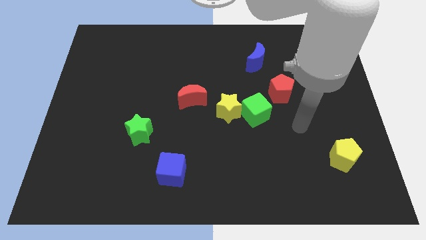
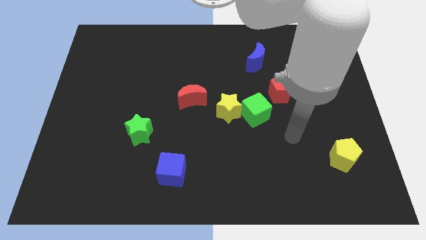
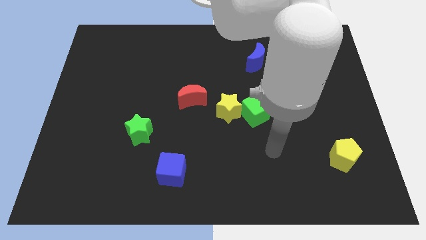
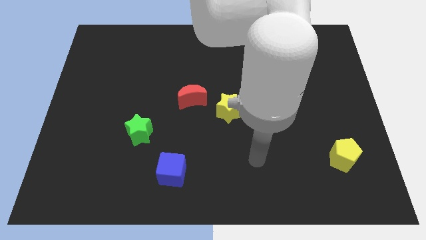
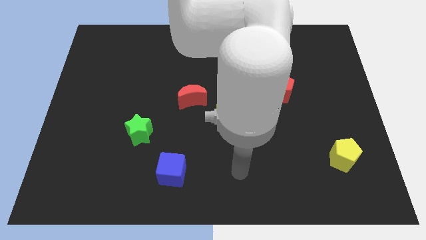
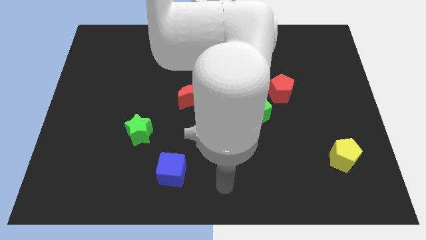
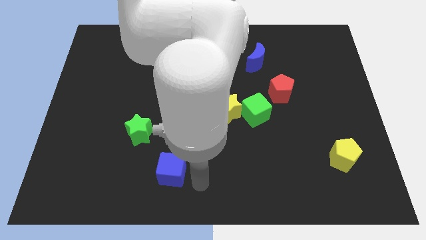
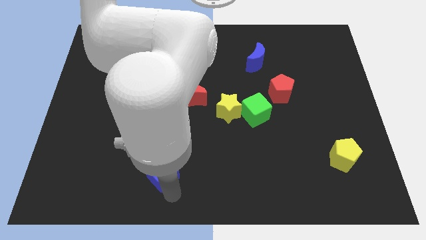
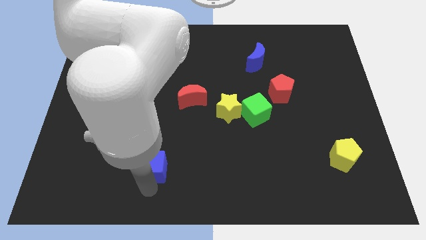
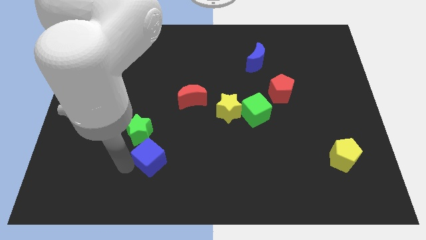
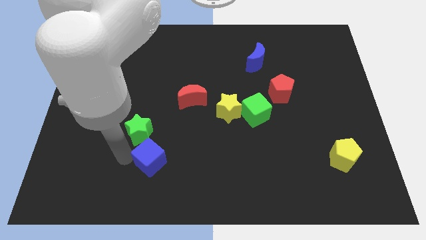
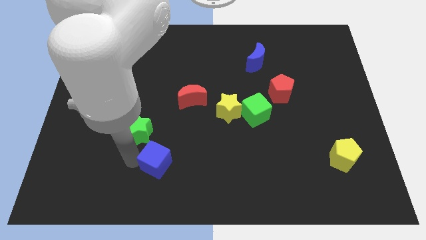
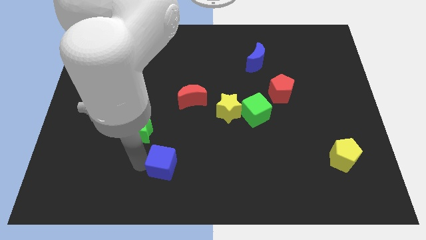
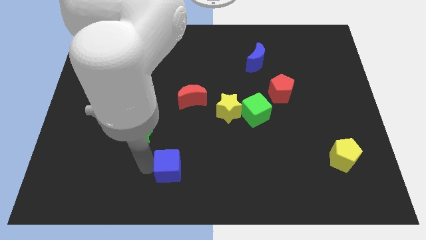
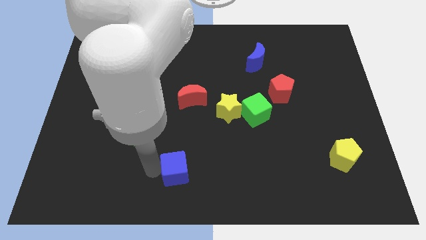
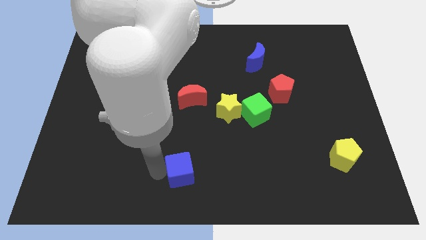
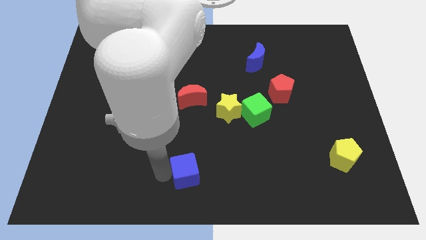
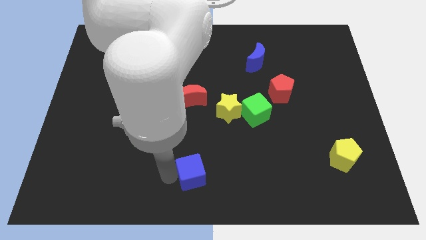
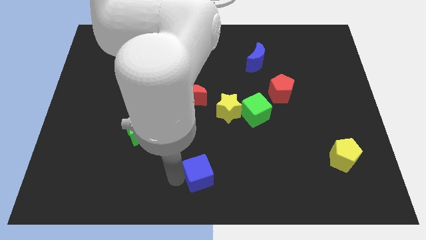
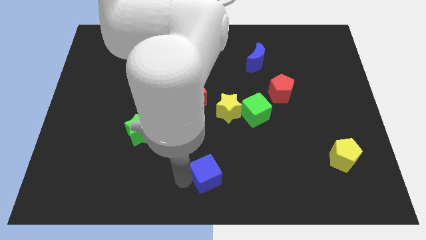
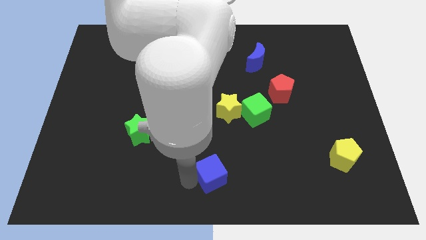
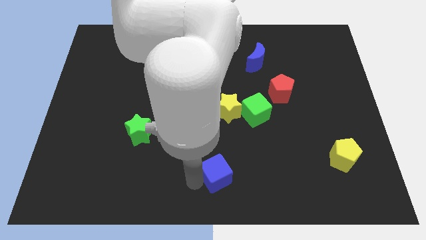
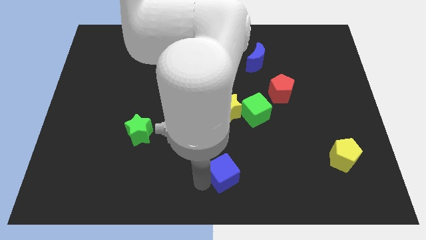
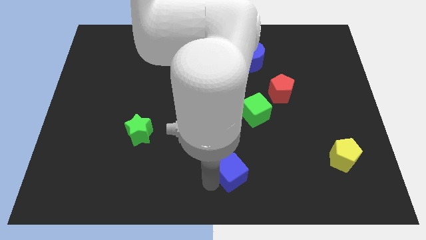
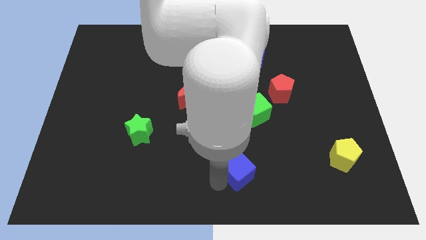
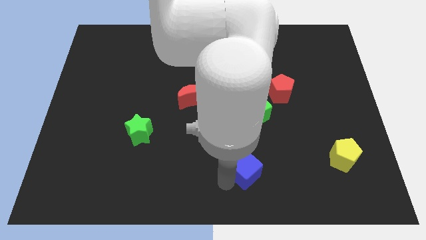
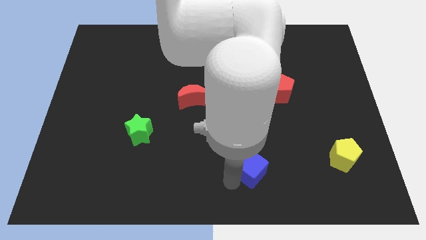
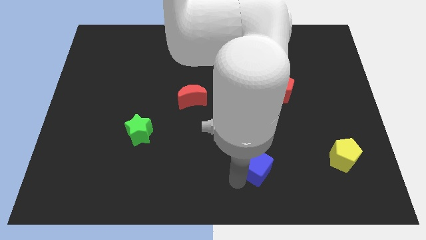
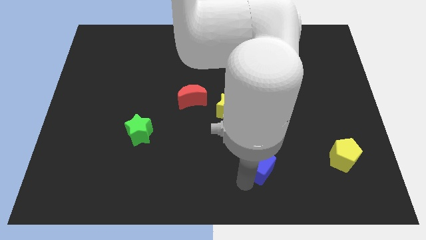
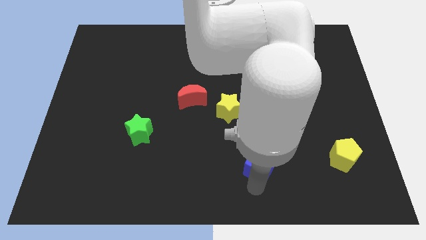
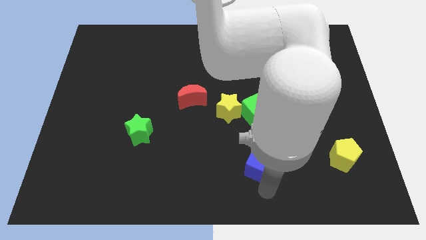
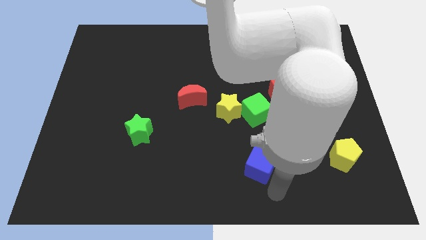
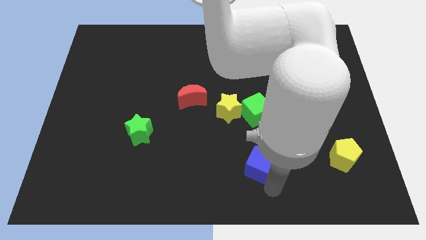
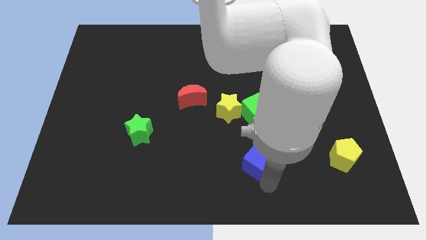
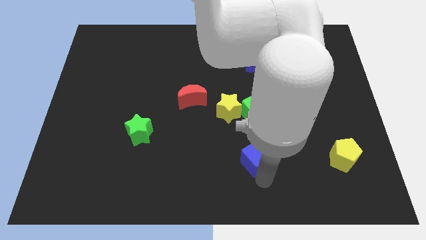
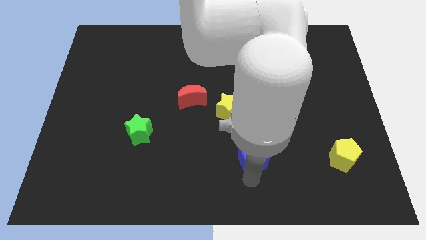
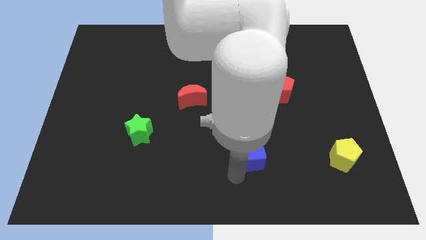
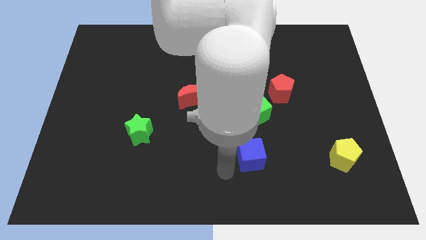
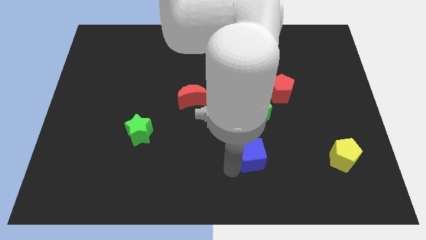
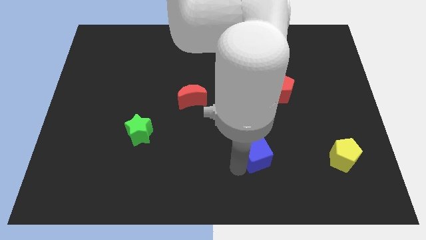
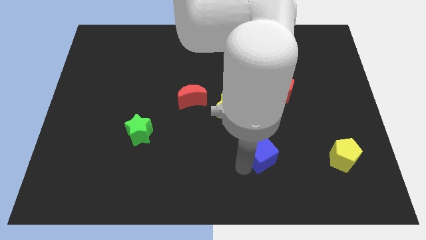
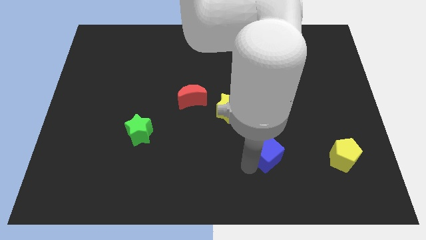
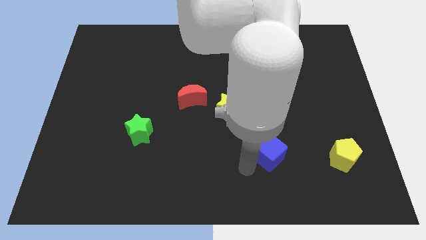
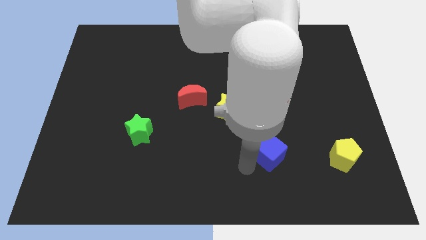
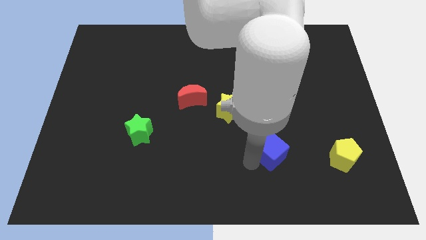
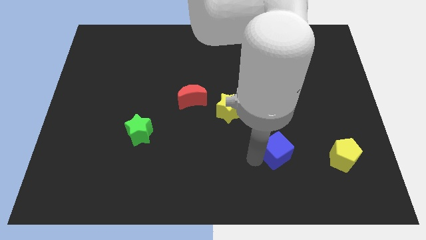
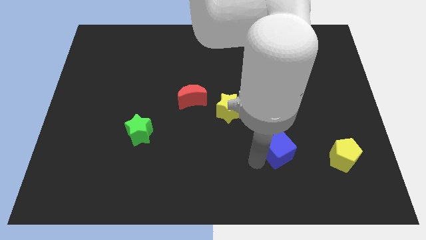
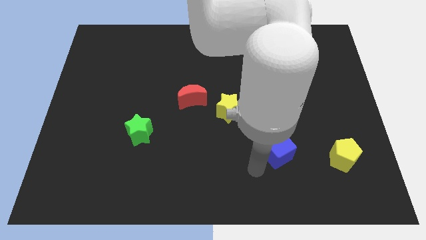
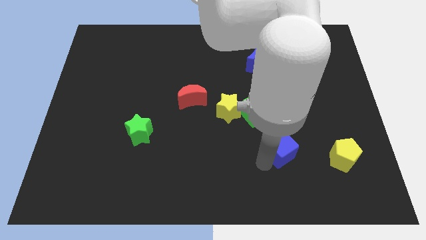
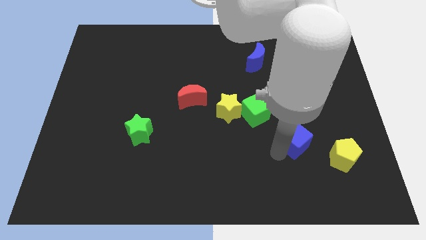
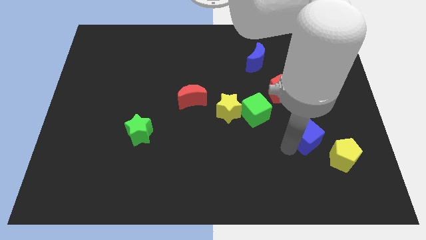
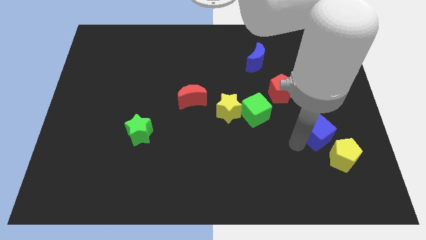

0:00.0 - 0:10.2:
move the blue cube above the yellow pentagon

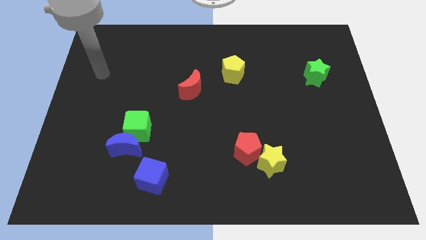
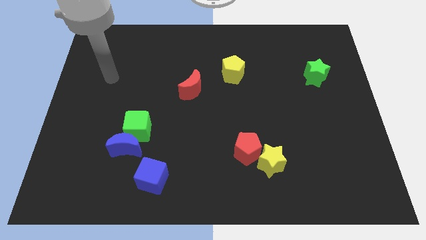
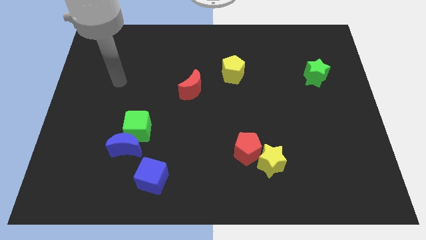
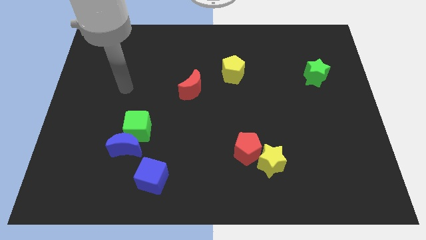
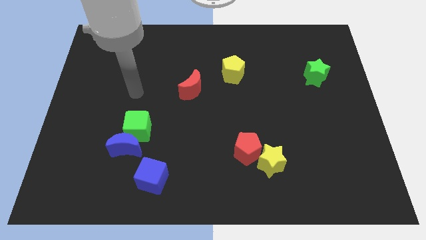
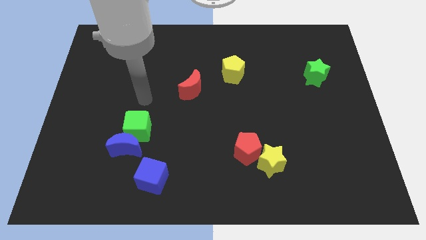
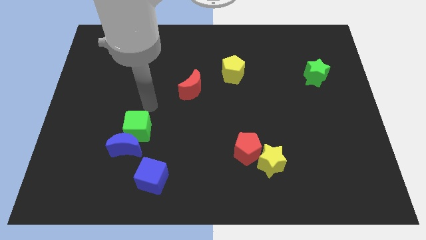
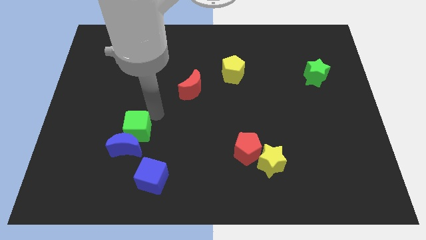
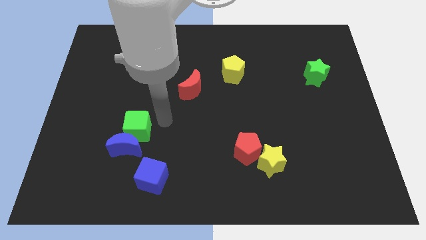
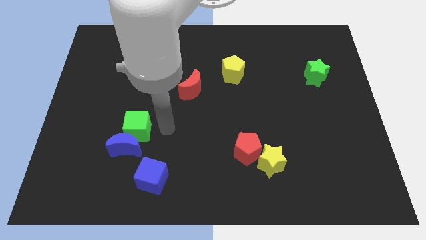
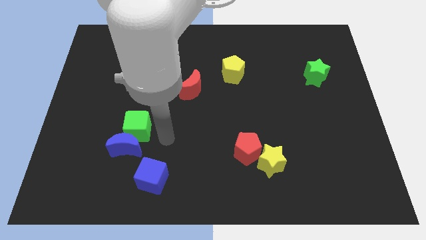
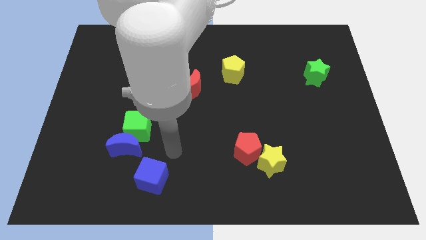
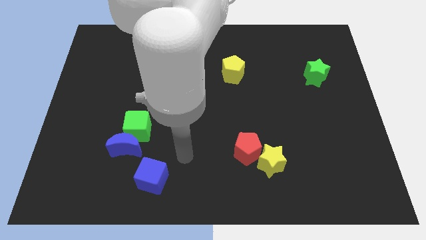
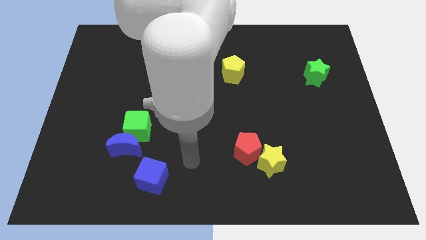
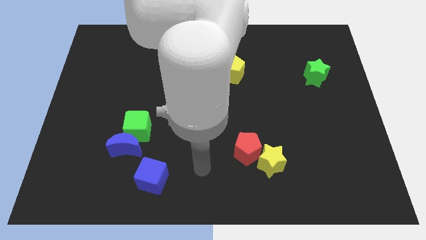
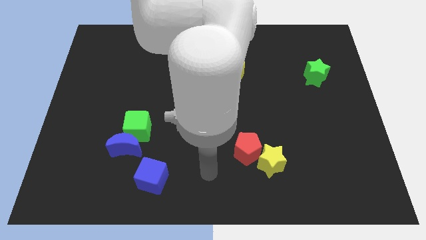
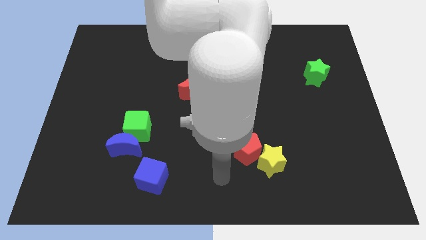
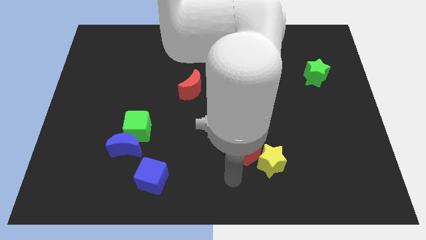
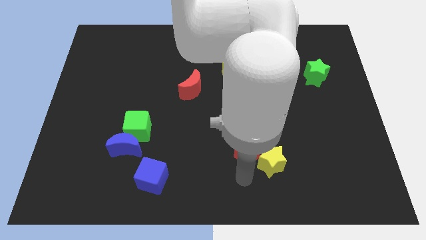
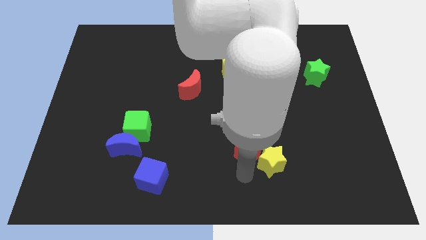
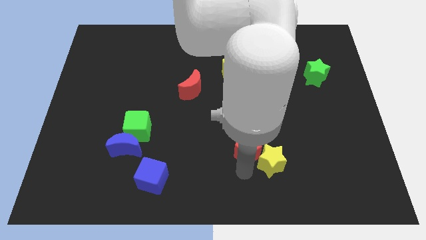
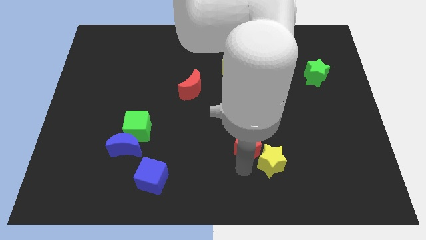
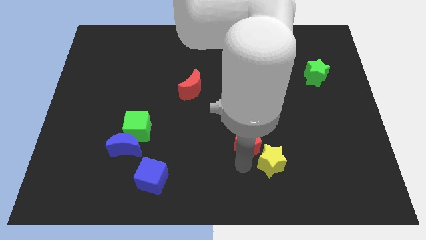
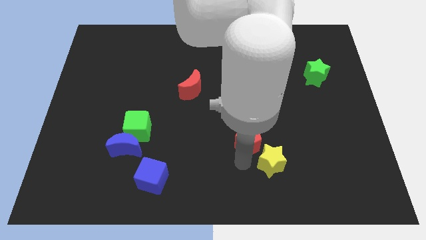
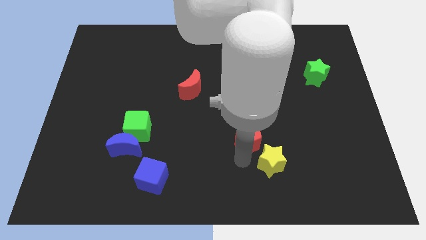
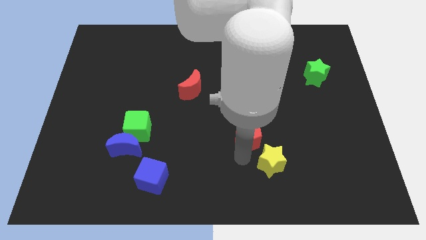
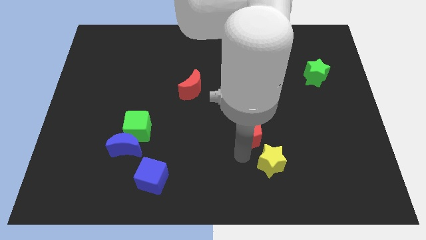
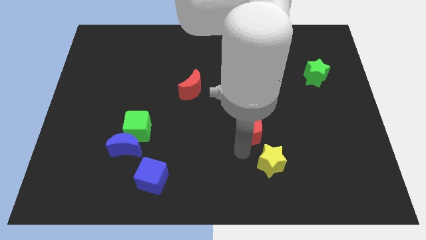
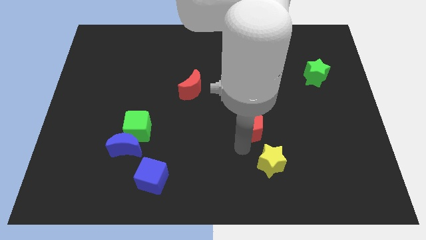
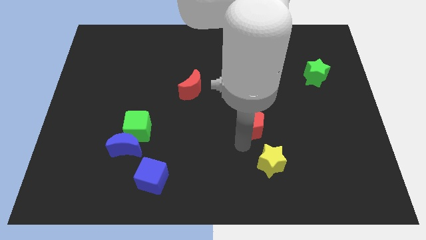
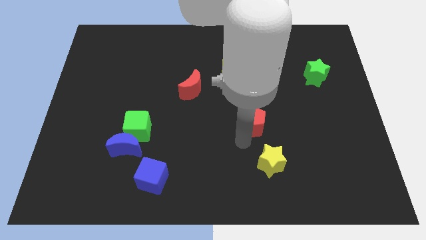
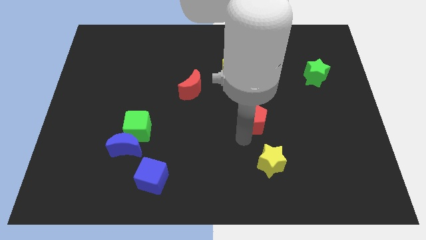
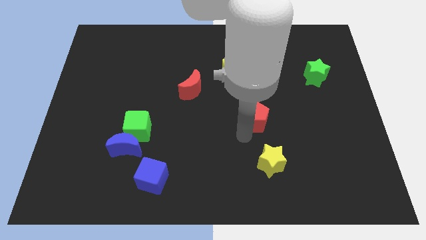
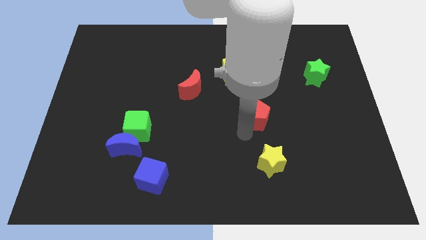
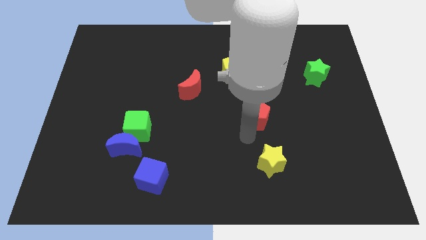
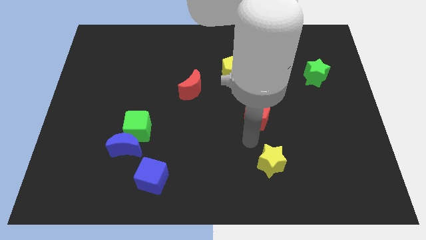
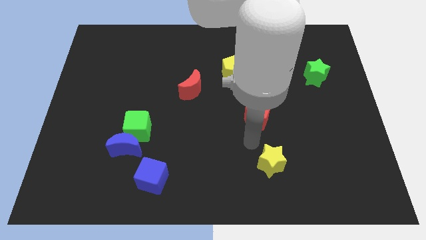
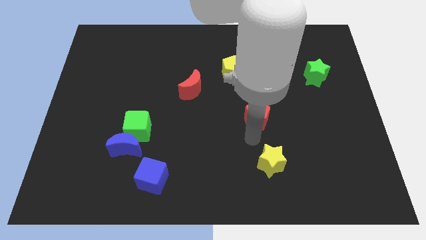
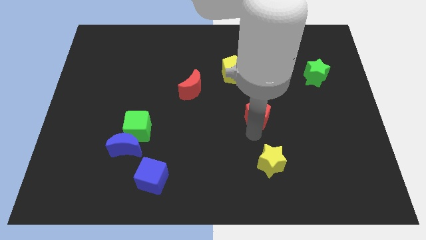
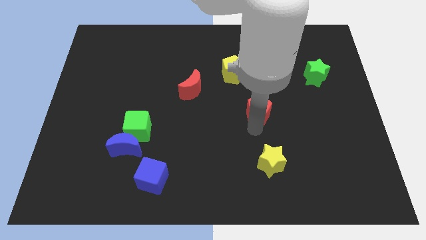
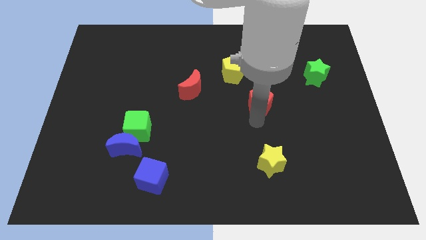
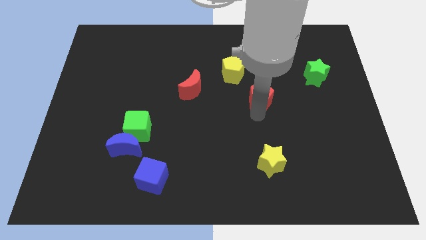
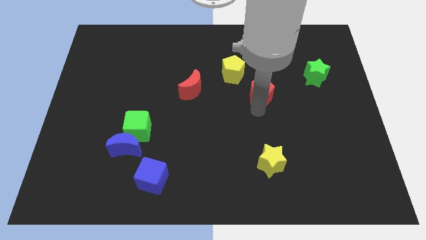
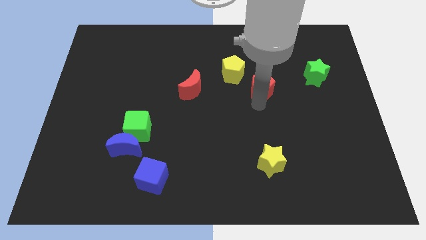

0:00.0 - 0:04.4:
move the red pentagon left of the green star
